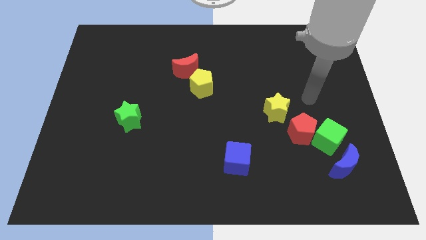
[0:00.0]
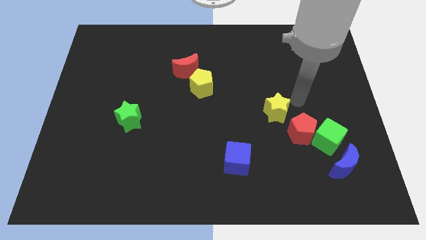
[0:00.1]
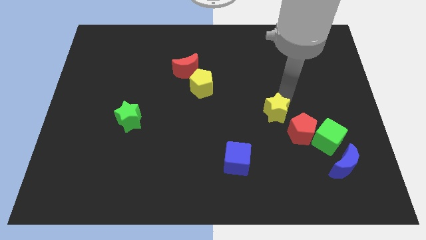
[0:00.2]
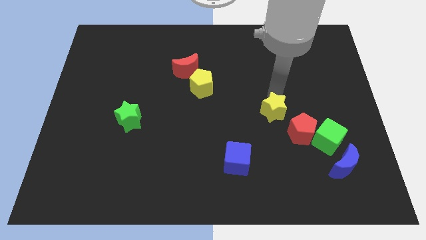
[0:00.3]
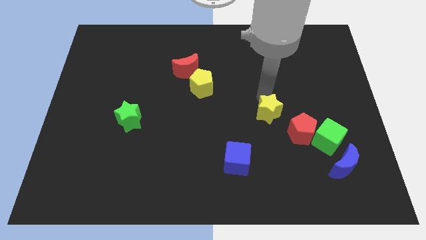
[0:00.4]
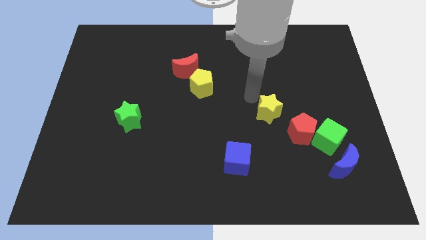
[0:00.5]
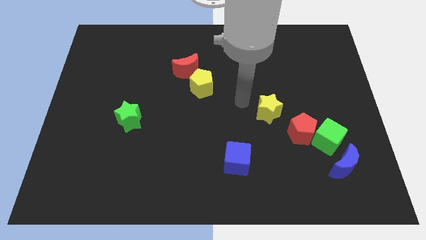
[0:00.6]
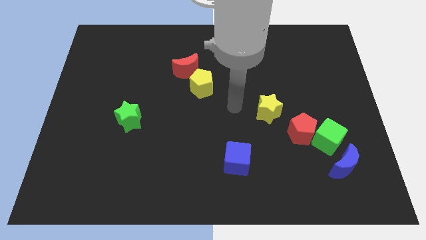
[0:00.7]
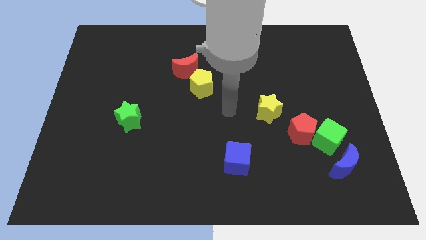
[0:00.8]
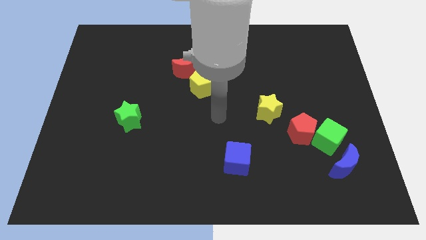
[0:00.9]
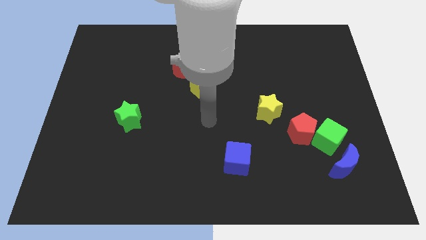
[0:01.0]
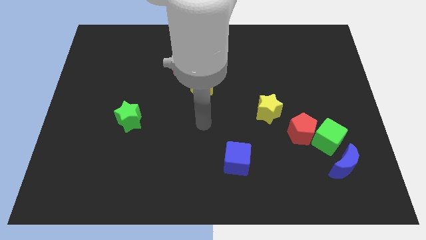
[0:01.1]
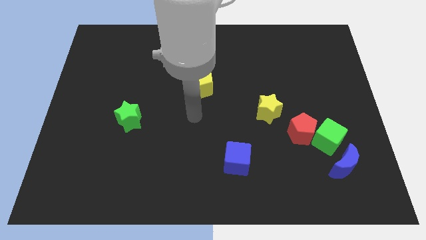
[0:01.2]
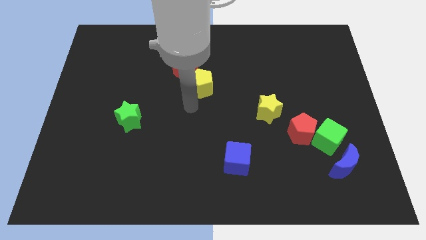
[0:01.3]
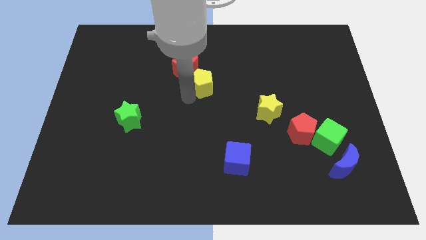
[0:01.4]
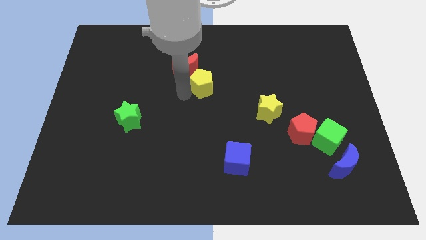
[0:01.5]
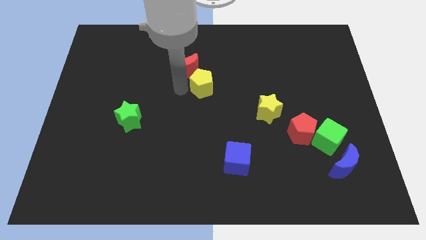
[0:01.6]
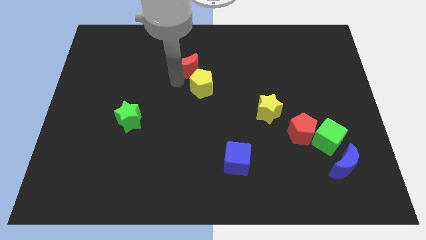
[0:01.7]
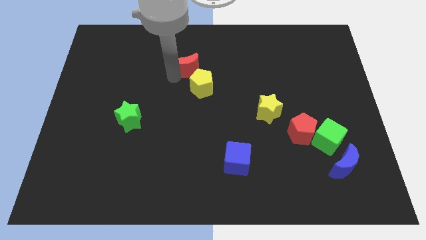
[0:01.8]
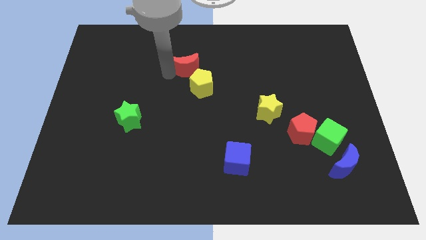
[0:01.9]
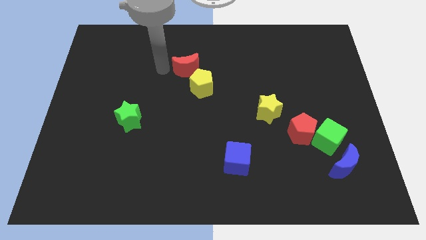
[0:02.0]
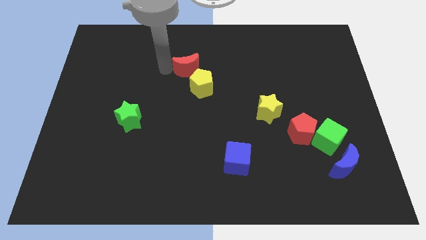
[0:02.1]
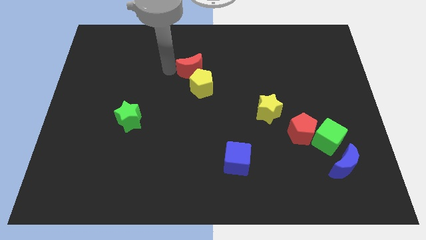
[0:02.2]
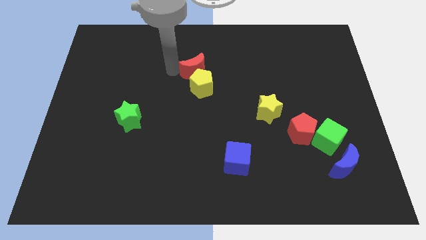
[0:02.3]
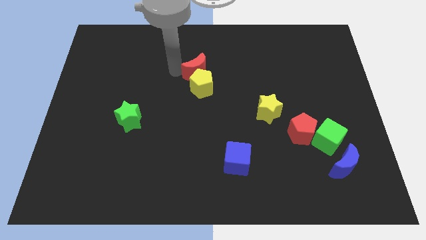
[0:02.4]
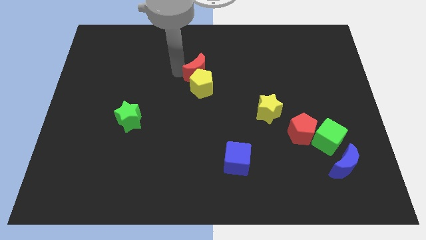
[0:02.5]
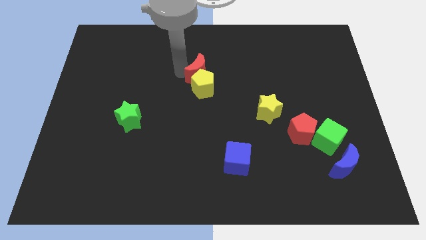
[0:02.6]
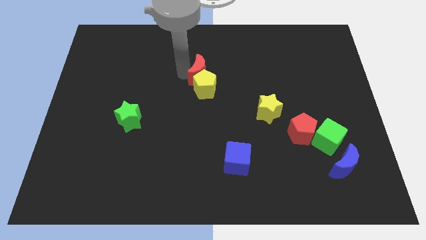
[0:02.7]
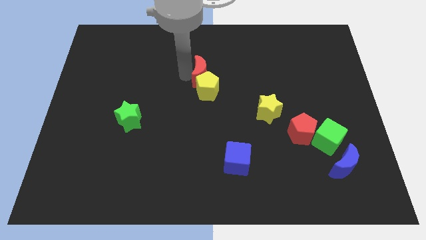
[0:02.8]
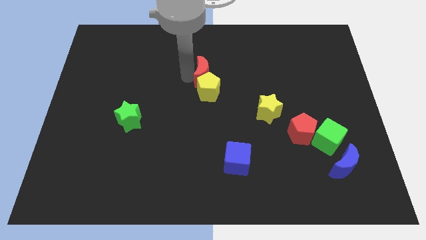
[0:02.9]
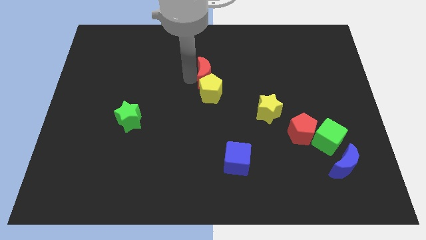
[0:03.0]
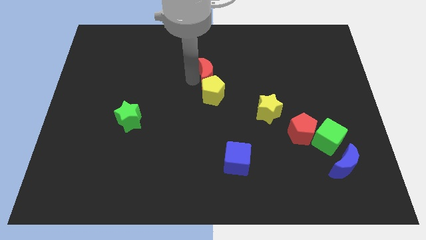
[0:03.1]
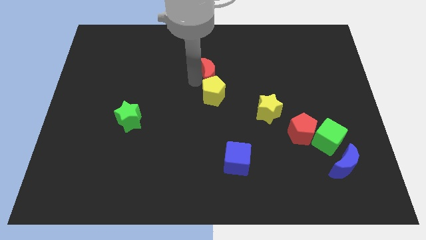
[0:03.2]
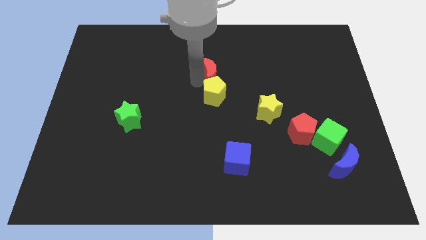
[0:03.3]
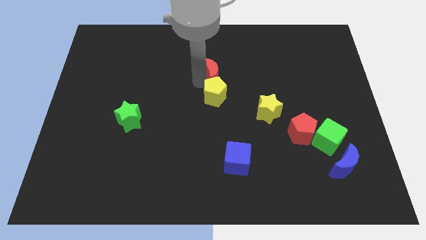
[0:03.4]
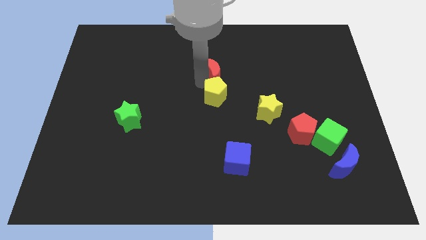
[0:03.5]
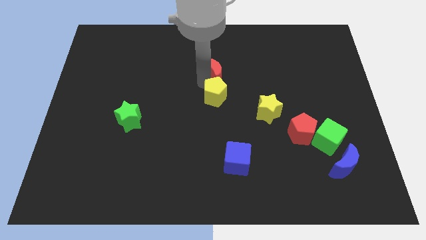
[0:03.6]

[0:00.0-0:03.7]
slide the red moon slightly right

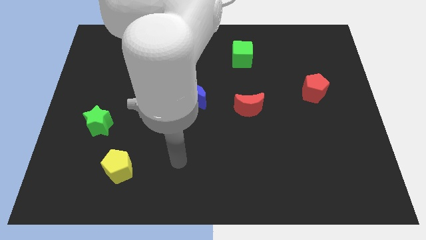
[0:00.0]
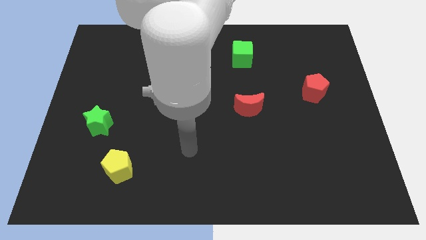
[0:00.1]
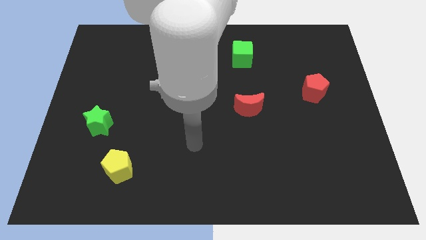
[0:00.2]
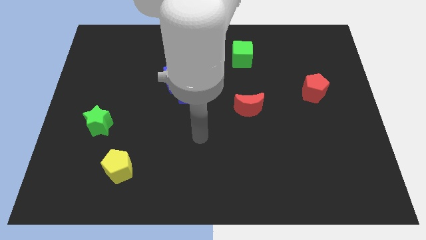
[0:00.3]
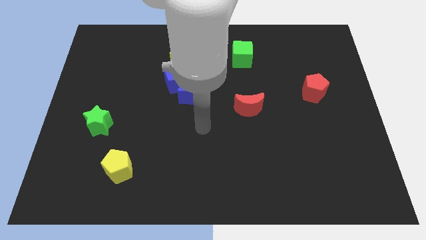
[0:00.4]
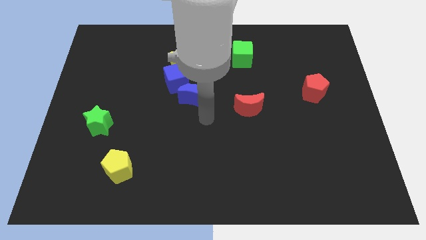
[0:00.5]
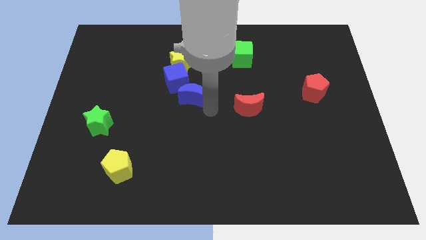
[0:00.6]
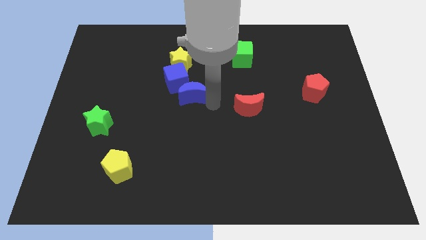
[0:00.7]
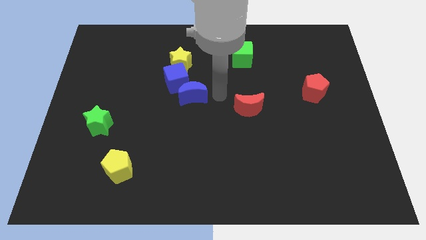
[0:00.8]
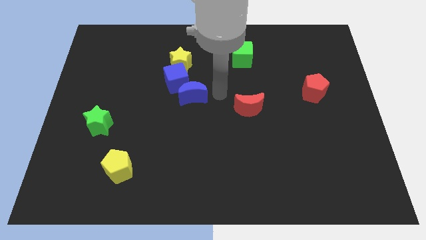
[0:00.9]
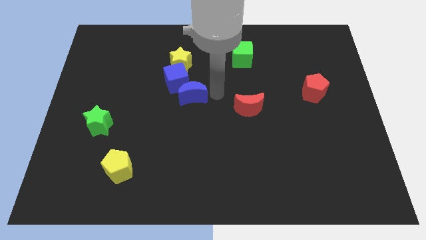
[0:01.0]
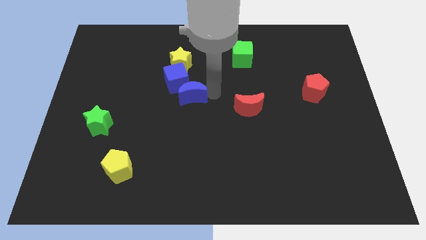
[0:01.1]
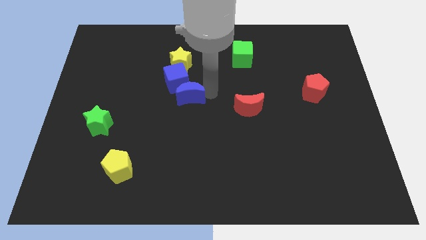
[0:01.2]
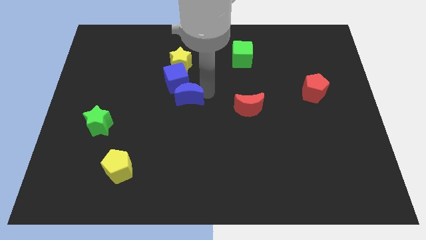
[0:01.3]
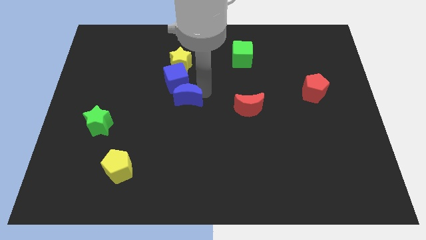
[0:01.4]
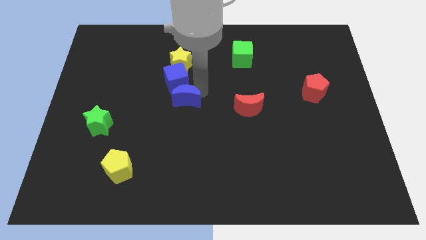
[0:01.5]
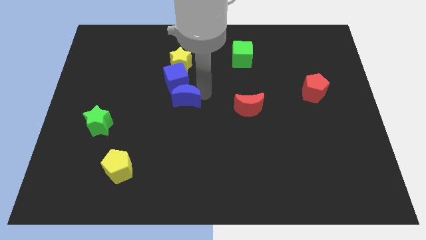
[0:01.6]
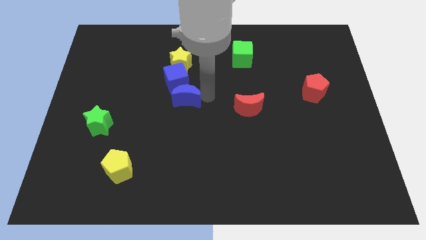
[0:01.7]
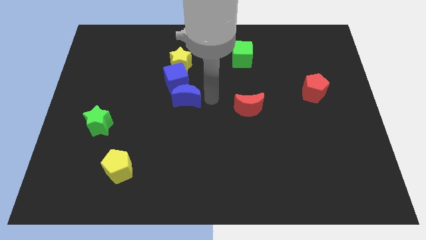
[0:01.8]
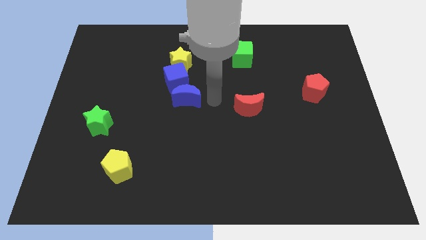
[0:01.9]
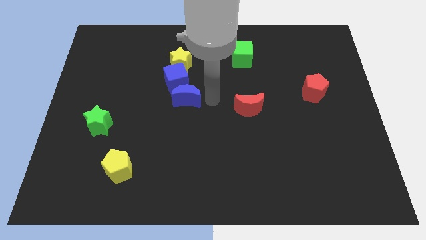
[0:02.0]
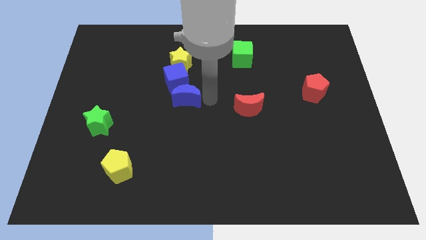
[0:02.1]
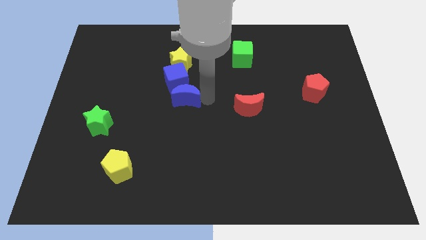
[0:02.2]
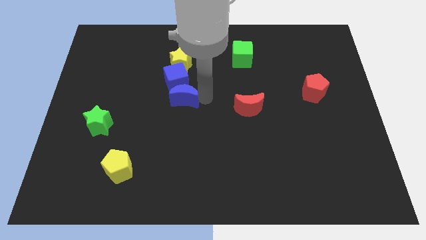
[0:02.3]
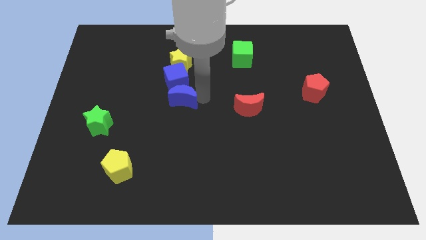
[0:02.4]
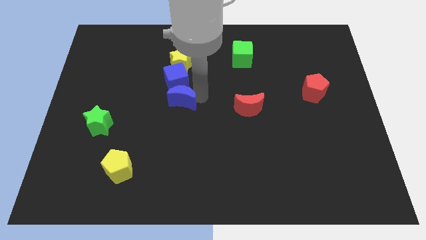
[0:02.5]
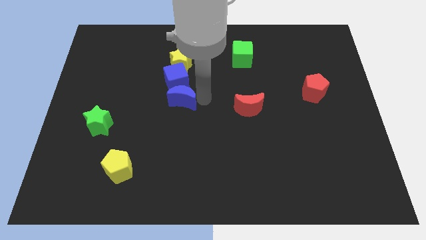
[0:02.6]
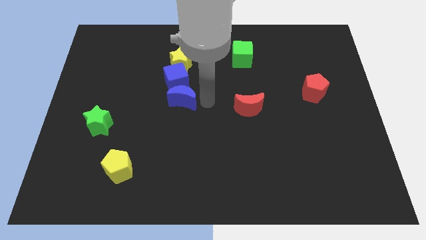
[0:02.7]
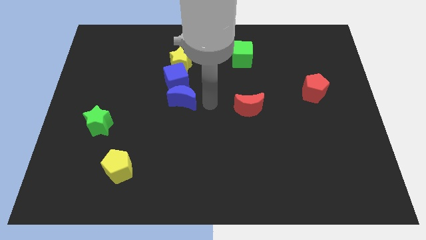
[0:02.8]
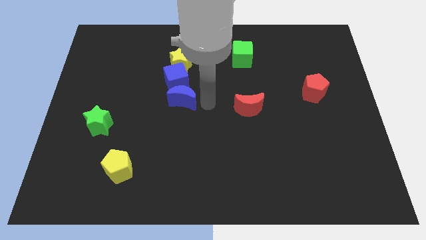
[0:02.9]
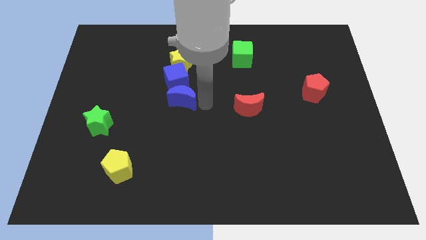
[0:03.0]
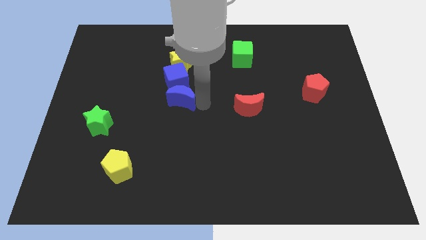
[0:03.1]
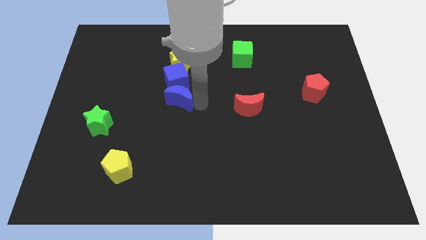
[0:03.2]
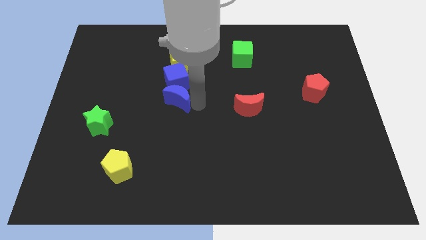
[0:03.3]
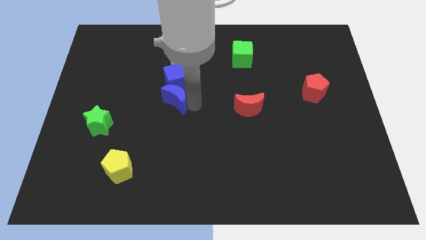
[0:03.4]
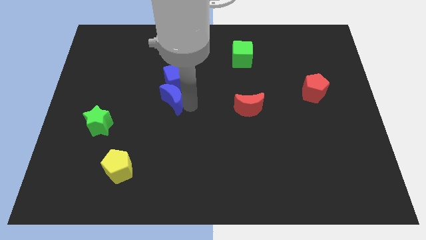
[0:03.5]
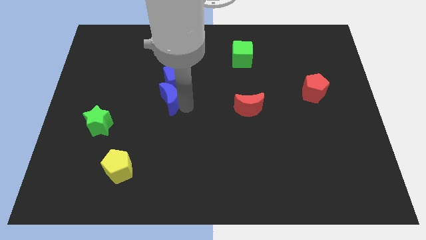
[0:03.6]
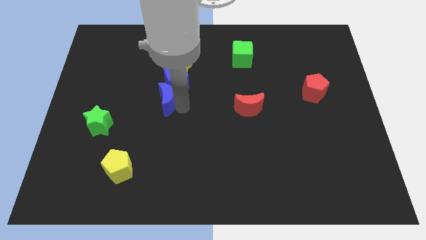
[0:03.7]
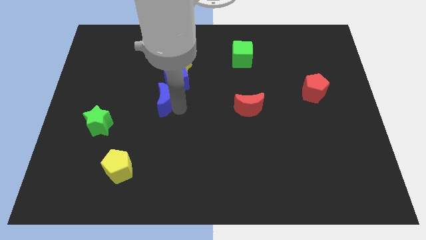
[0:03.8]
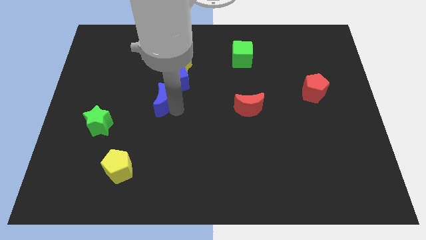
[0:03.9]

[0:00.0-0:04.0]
slide the blue moon left slightly
